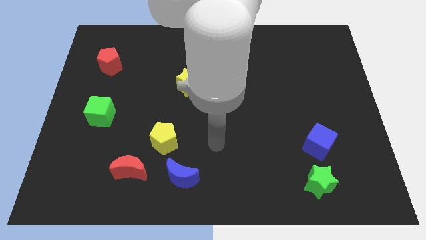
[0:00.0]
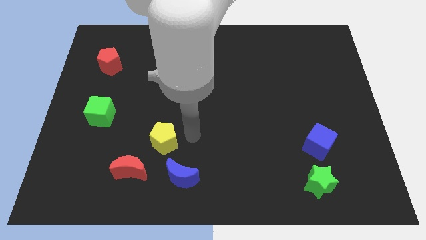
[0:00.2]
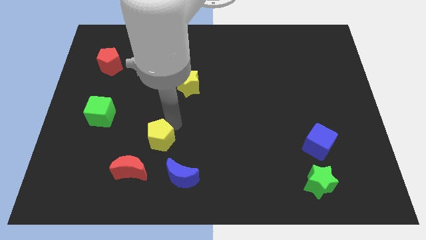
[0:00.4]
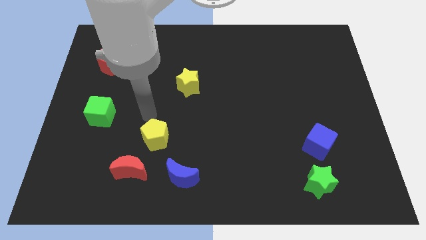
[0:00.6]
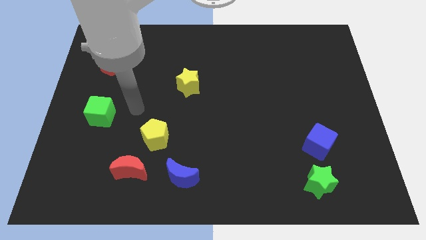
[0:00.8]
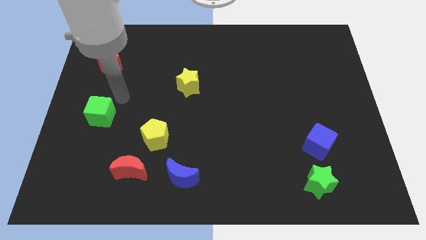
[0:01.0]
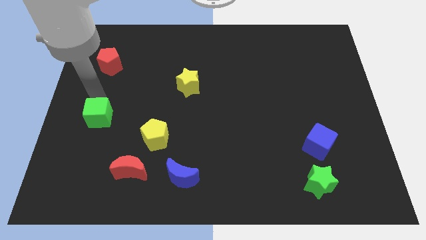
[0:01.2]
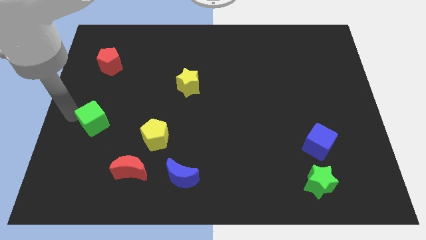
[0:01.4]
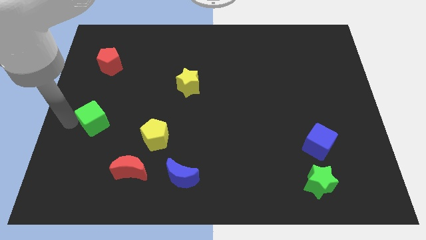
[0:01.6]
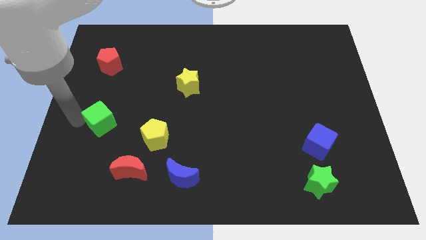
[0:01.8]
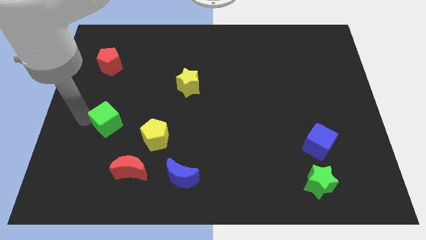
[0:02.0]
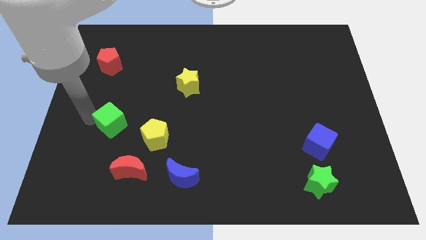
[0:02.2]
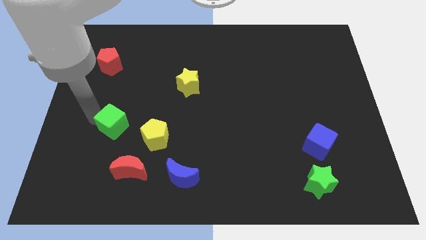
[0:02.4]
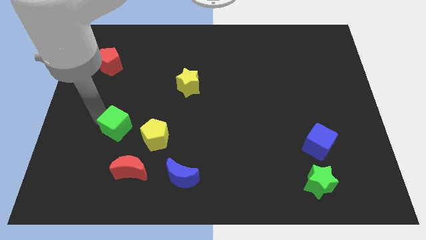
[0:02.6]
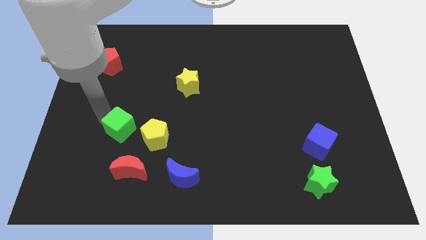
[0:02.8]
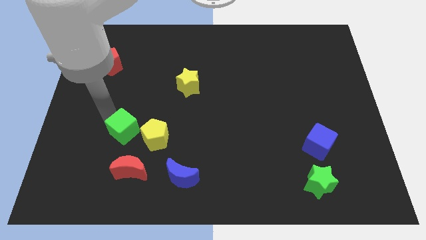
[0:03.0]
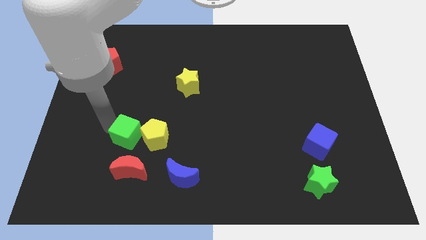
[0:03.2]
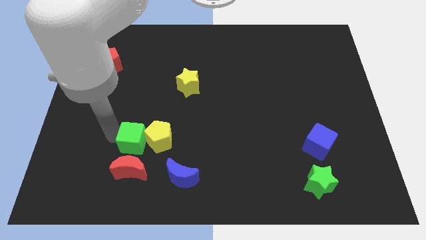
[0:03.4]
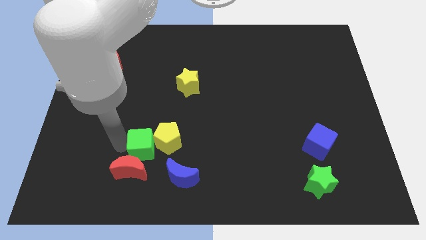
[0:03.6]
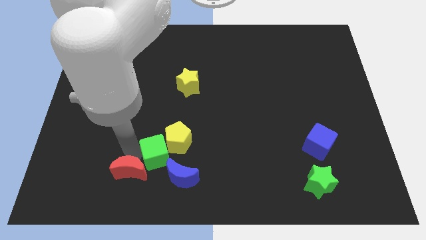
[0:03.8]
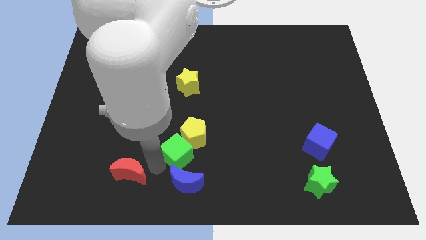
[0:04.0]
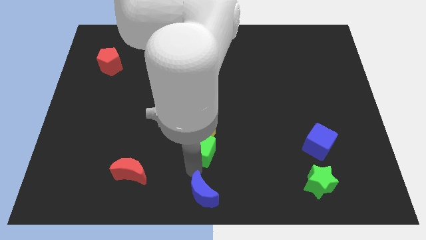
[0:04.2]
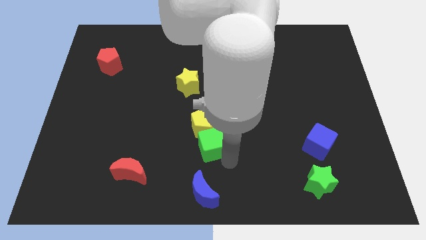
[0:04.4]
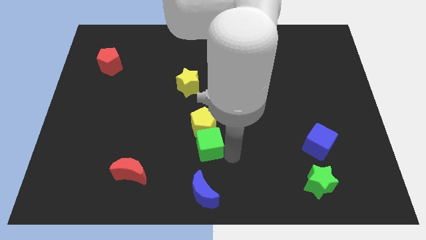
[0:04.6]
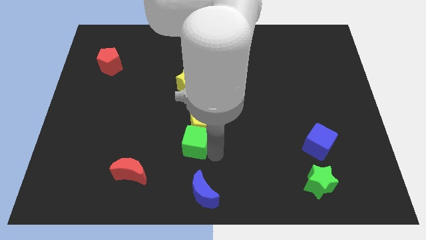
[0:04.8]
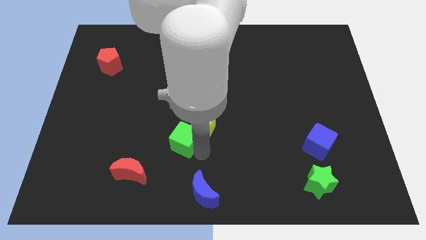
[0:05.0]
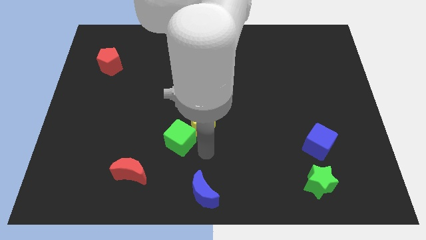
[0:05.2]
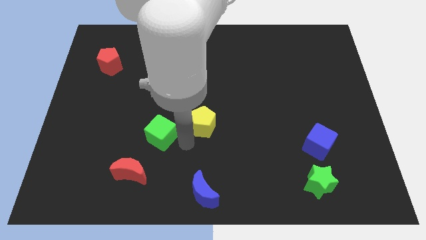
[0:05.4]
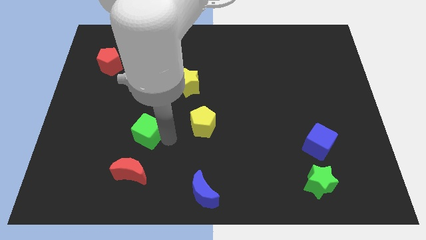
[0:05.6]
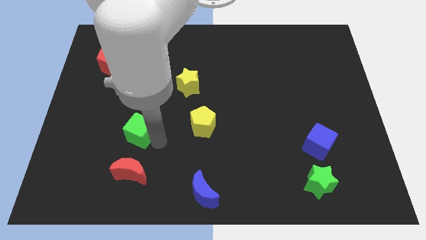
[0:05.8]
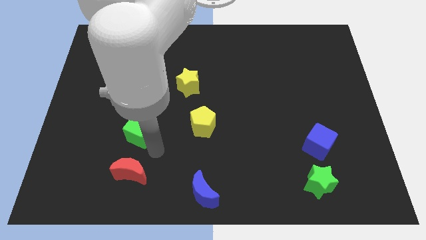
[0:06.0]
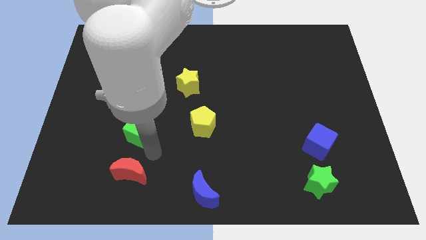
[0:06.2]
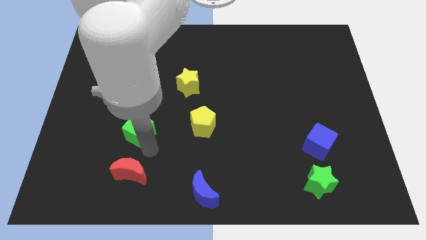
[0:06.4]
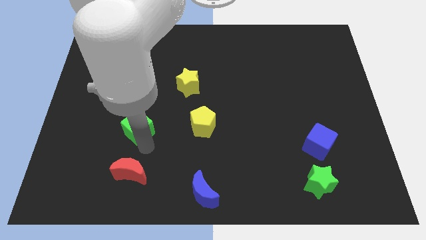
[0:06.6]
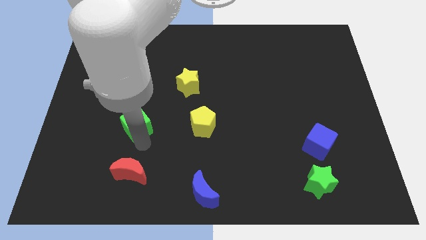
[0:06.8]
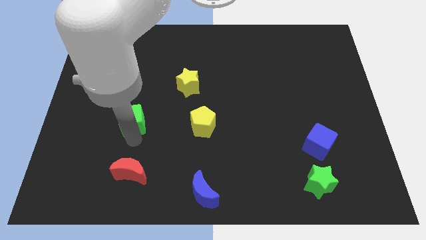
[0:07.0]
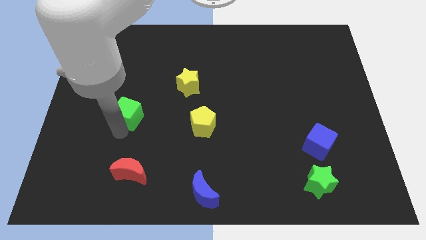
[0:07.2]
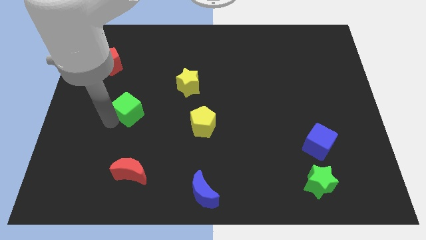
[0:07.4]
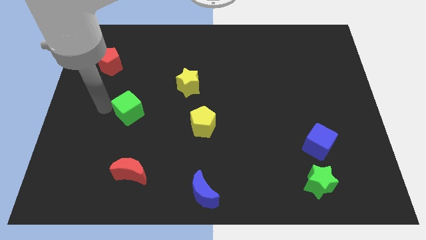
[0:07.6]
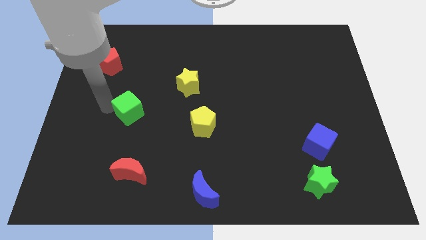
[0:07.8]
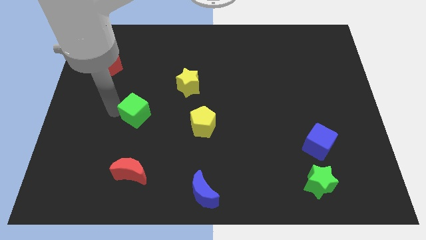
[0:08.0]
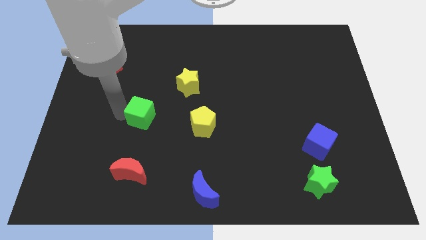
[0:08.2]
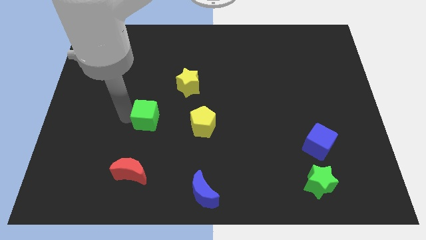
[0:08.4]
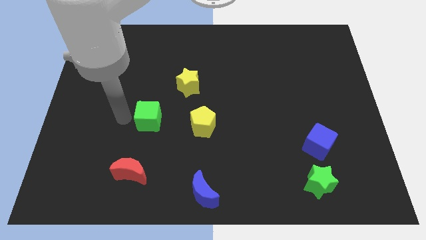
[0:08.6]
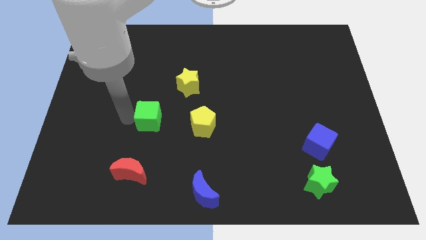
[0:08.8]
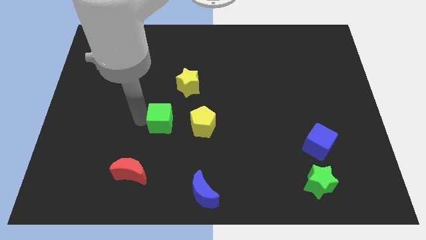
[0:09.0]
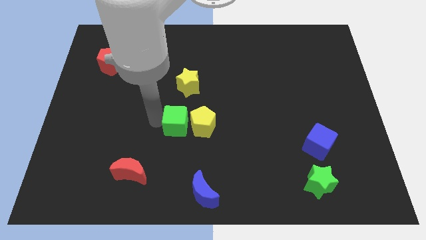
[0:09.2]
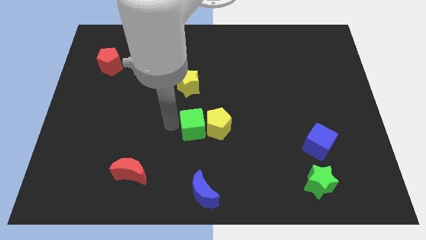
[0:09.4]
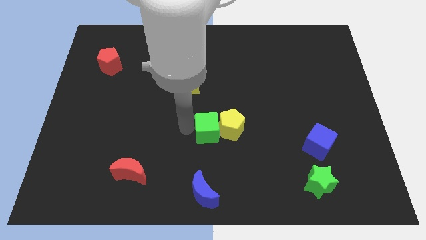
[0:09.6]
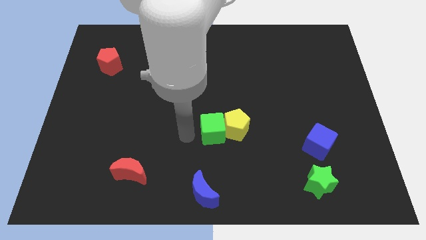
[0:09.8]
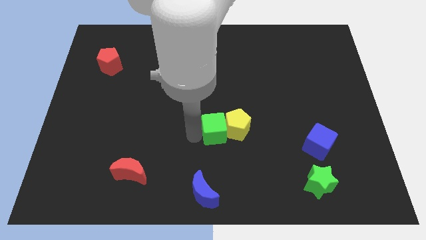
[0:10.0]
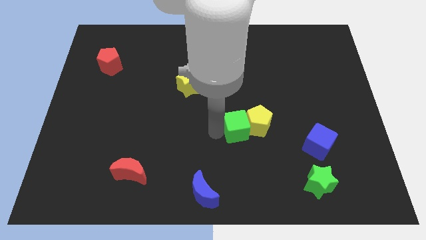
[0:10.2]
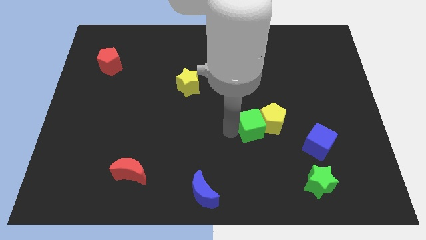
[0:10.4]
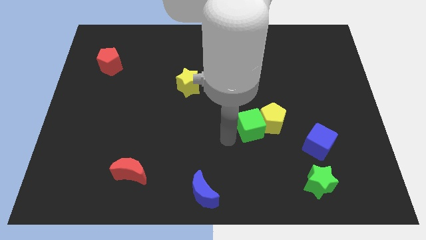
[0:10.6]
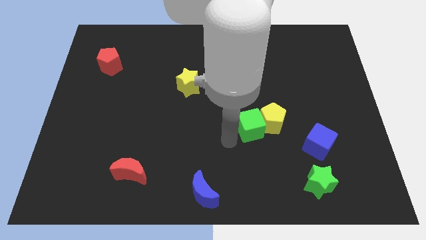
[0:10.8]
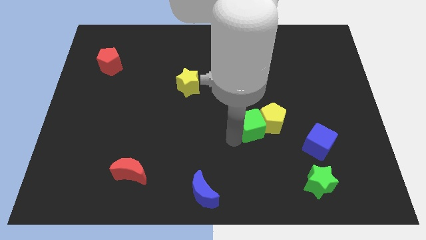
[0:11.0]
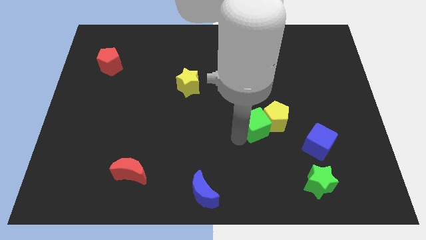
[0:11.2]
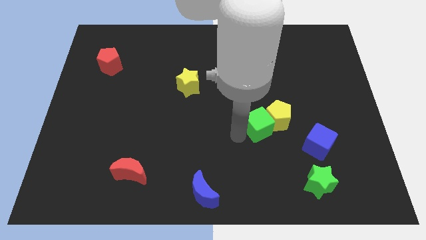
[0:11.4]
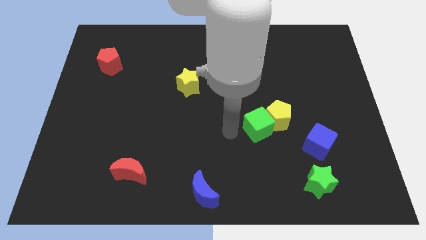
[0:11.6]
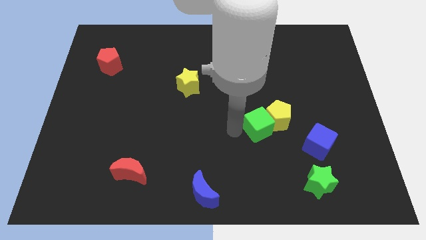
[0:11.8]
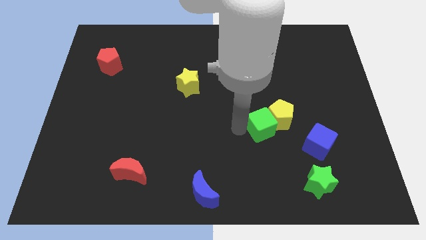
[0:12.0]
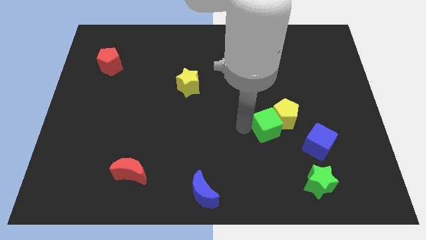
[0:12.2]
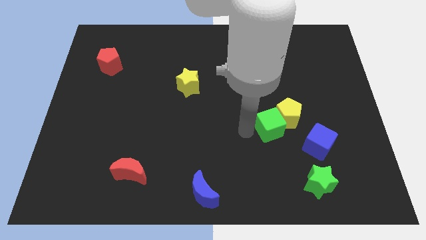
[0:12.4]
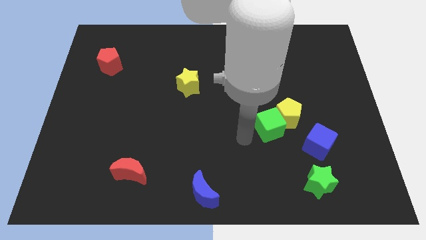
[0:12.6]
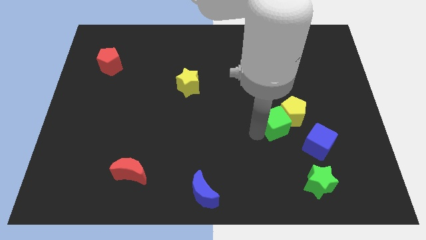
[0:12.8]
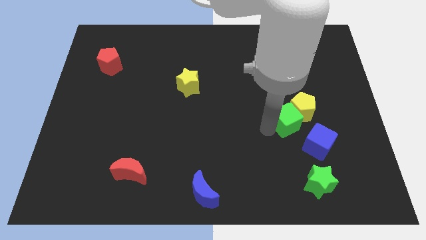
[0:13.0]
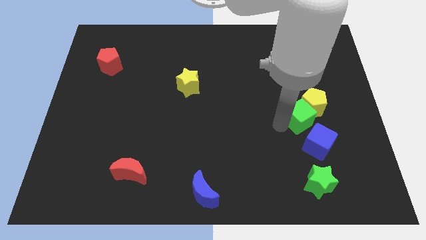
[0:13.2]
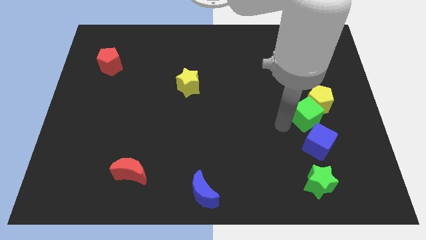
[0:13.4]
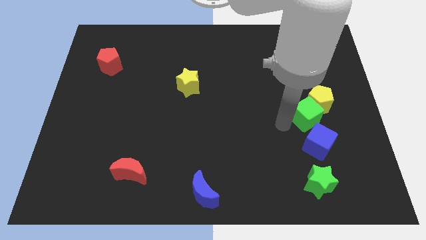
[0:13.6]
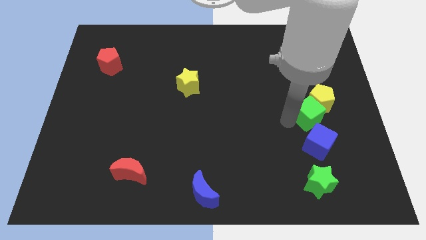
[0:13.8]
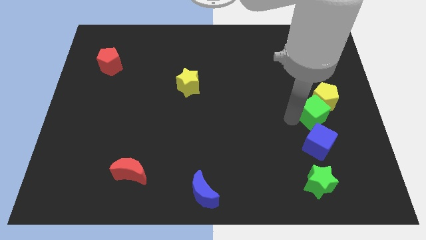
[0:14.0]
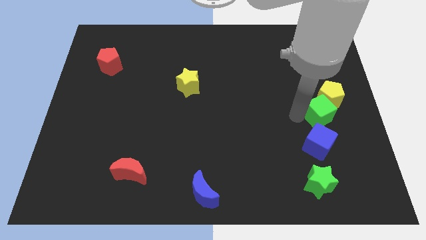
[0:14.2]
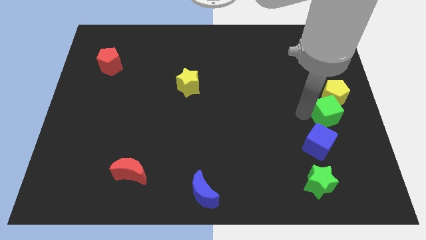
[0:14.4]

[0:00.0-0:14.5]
push the green cube to the right side of the board
